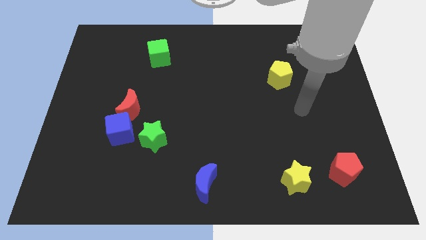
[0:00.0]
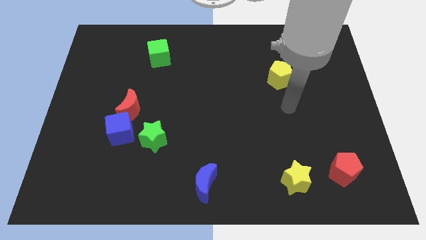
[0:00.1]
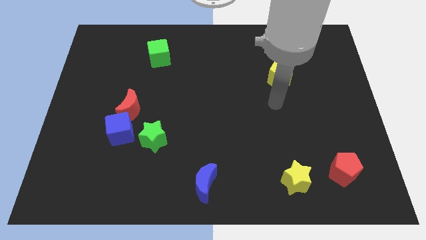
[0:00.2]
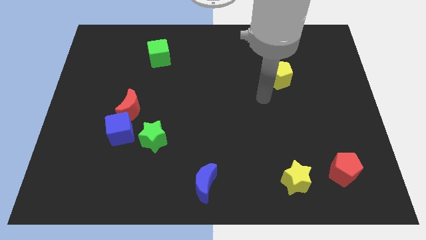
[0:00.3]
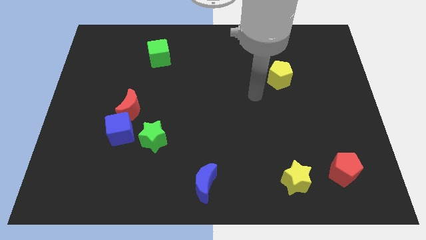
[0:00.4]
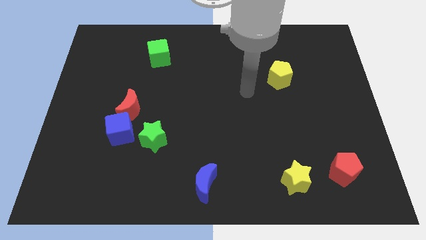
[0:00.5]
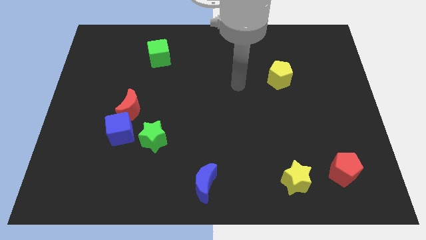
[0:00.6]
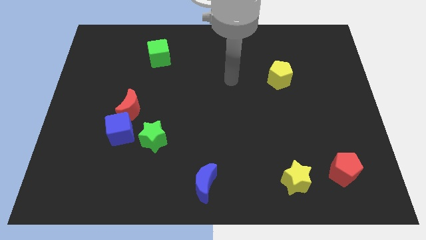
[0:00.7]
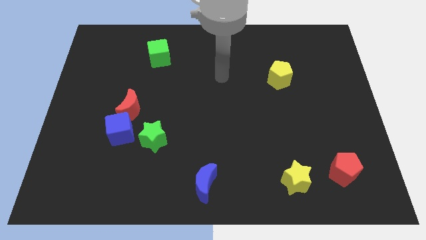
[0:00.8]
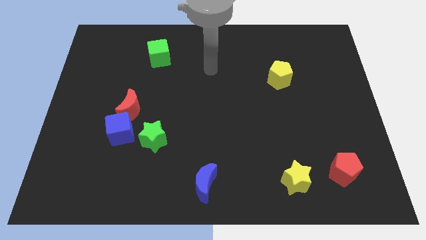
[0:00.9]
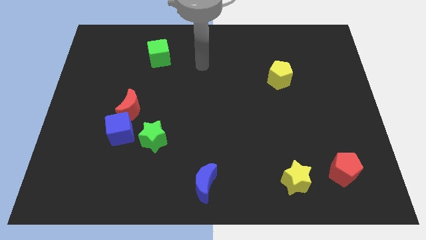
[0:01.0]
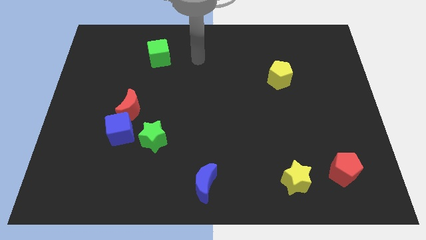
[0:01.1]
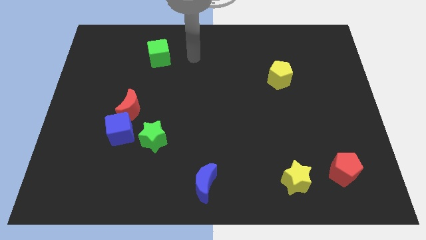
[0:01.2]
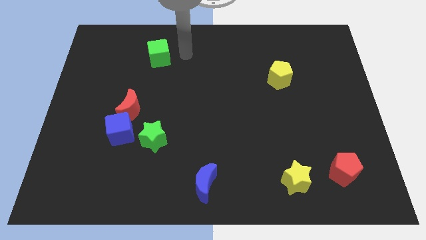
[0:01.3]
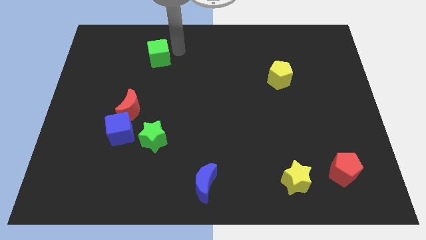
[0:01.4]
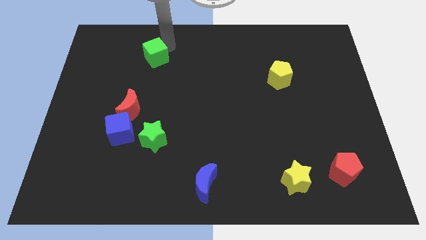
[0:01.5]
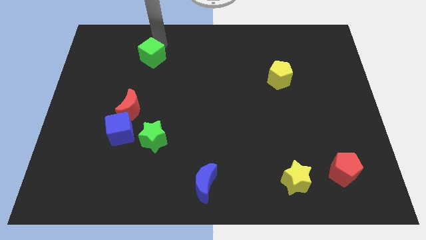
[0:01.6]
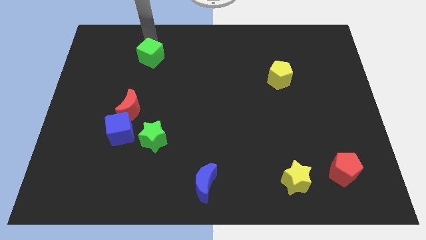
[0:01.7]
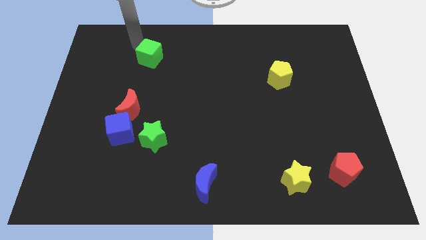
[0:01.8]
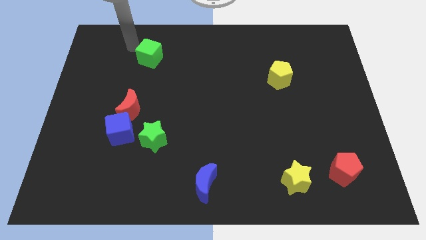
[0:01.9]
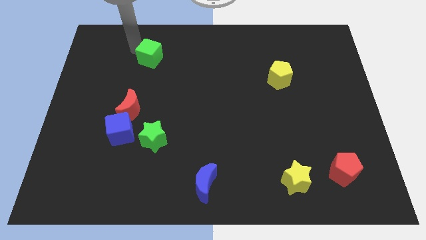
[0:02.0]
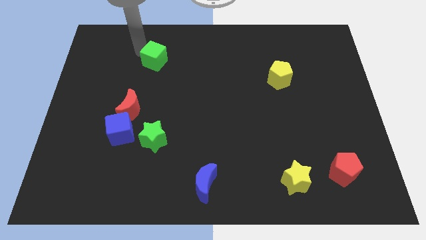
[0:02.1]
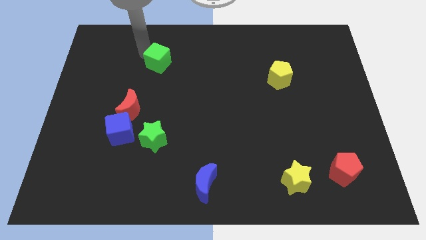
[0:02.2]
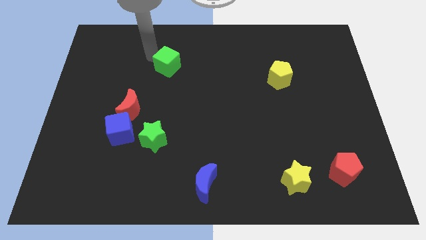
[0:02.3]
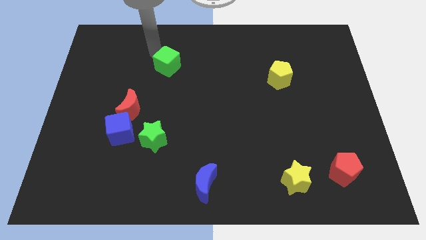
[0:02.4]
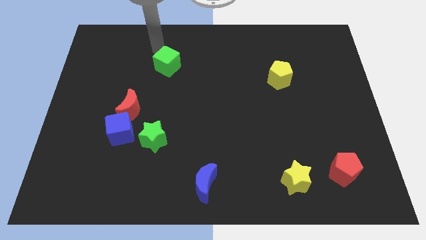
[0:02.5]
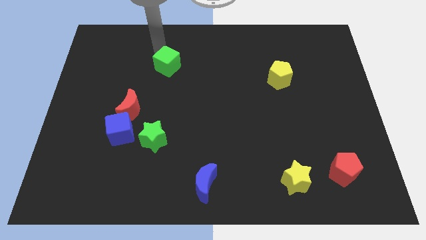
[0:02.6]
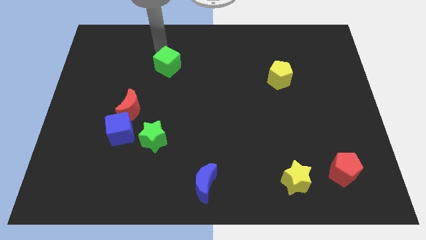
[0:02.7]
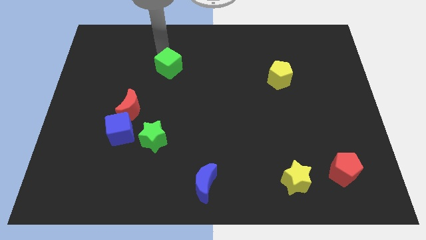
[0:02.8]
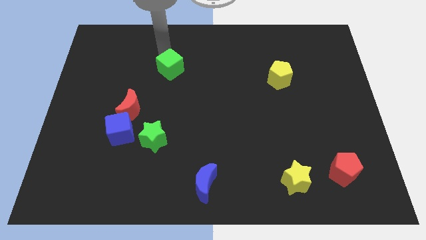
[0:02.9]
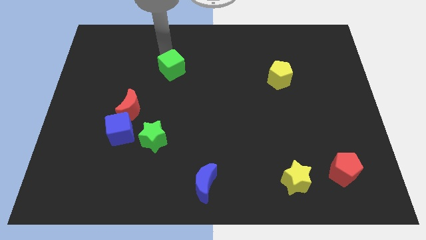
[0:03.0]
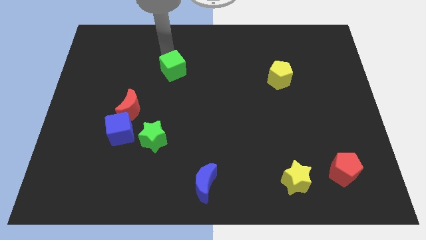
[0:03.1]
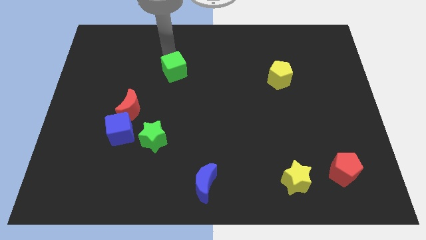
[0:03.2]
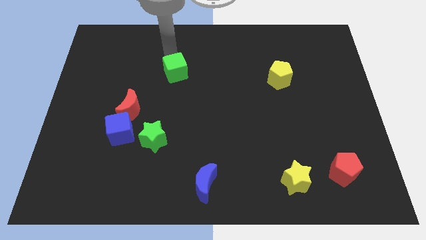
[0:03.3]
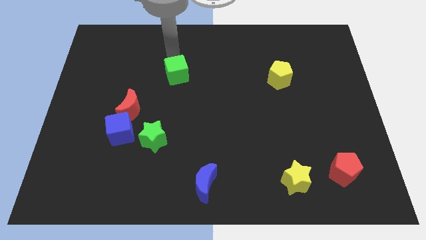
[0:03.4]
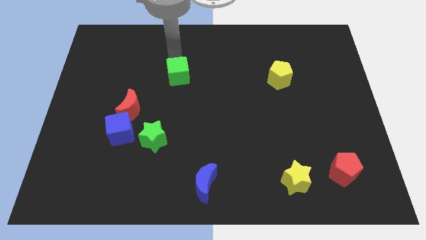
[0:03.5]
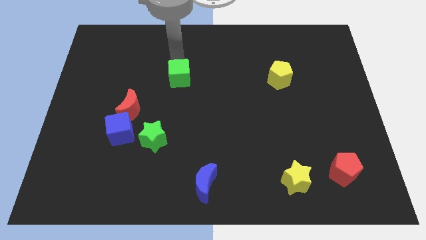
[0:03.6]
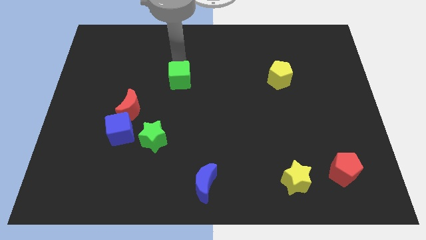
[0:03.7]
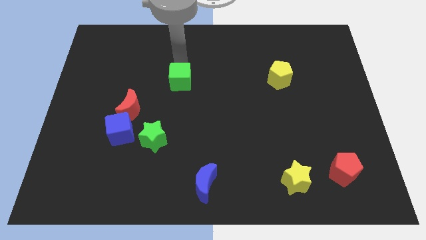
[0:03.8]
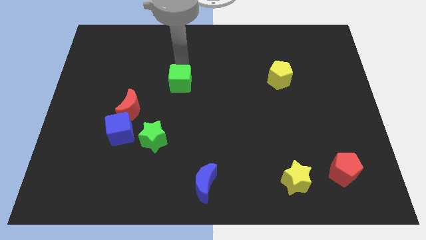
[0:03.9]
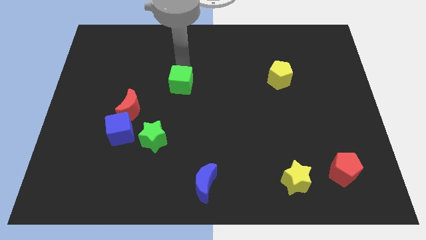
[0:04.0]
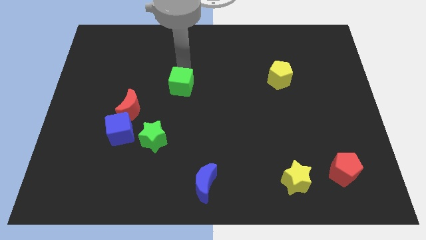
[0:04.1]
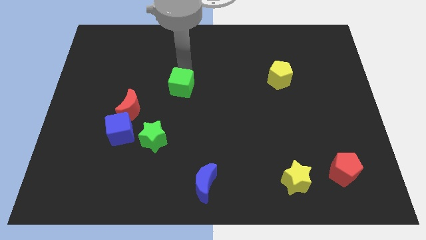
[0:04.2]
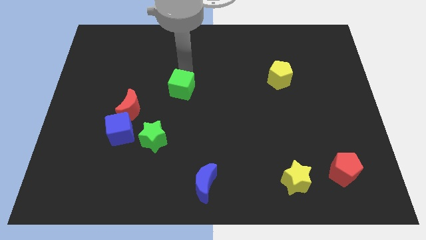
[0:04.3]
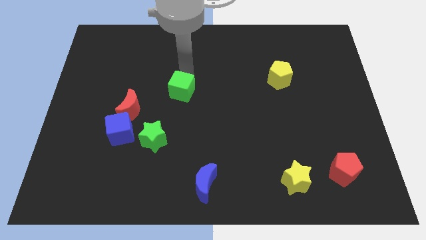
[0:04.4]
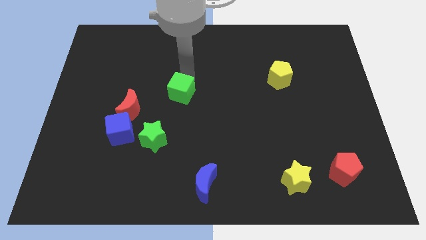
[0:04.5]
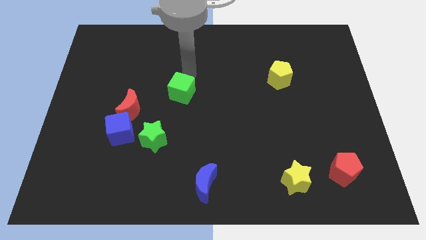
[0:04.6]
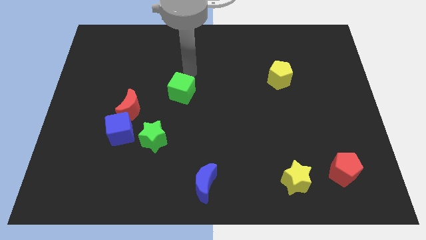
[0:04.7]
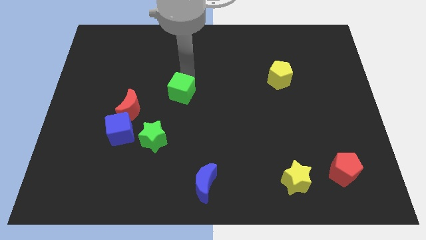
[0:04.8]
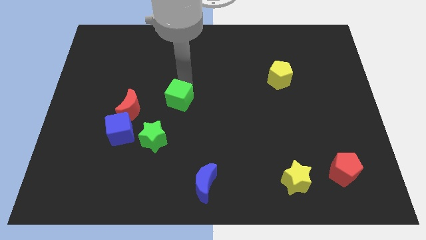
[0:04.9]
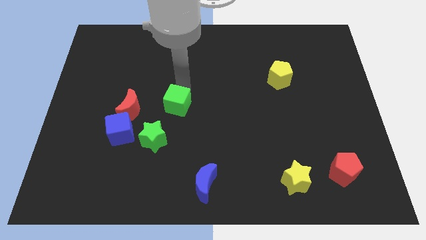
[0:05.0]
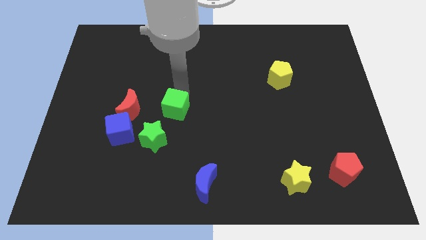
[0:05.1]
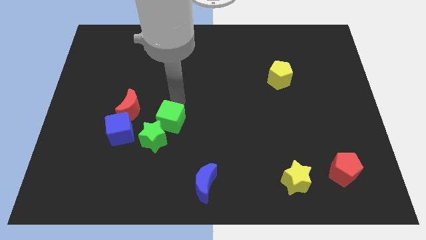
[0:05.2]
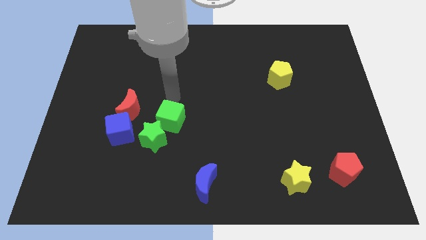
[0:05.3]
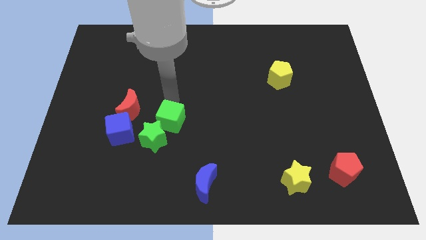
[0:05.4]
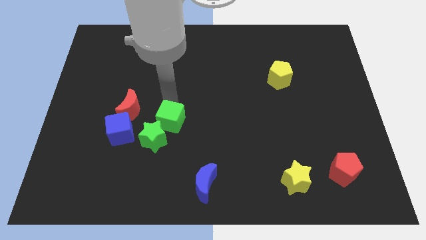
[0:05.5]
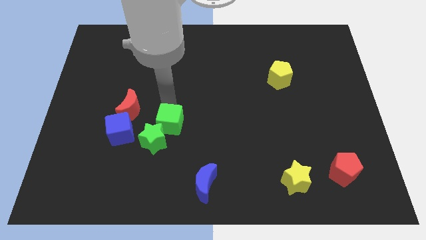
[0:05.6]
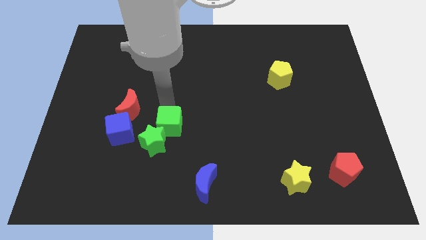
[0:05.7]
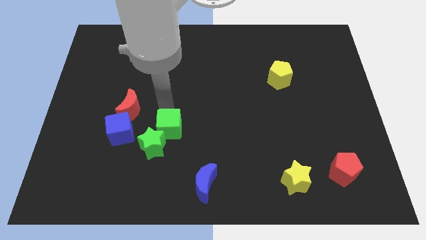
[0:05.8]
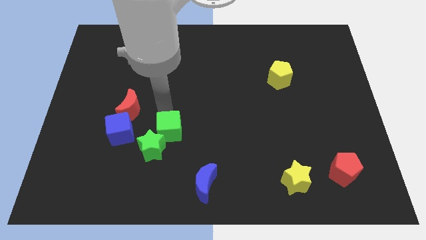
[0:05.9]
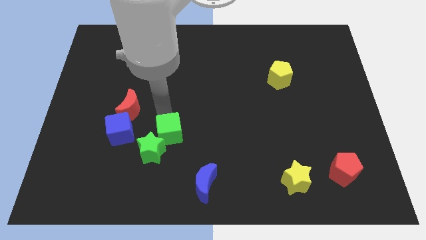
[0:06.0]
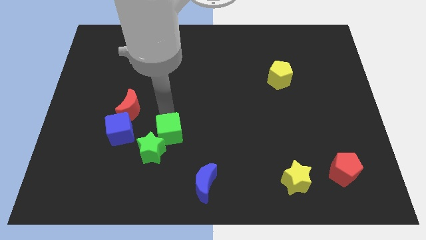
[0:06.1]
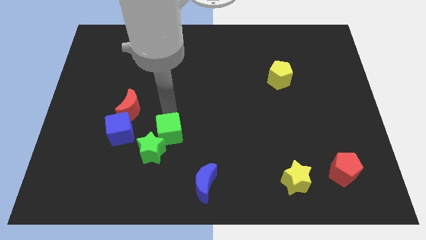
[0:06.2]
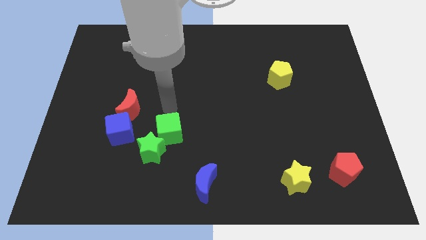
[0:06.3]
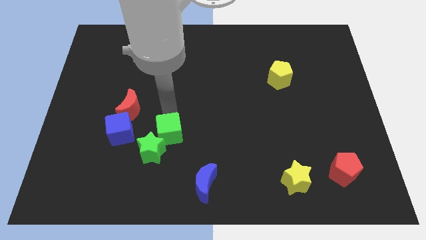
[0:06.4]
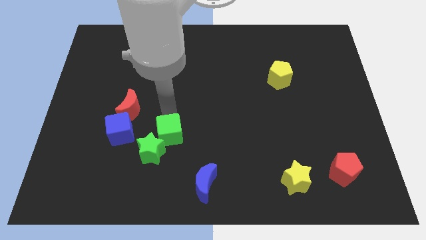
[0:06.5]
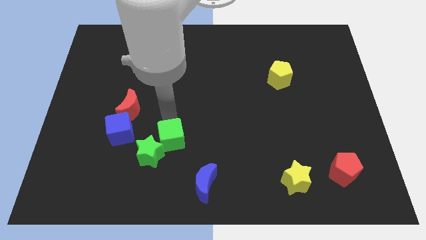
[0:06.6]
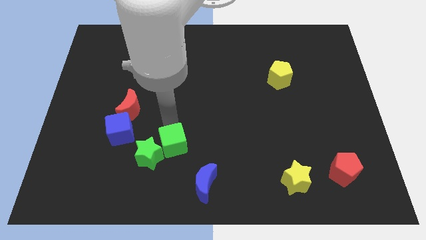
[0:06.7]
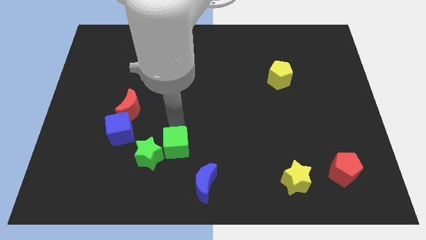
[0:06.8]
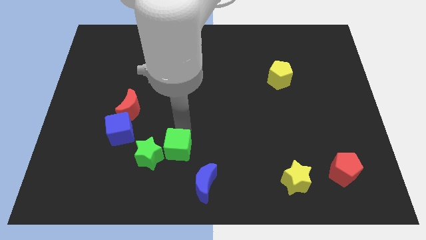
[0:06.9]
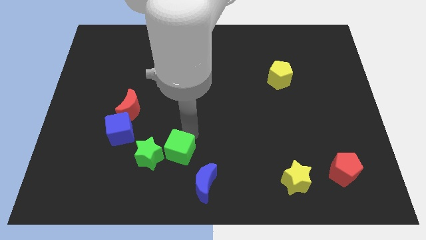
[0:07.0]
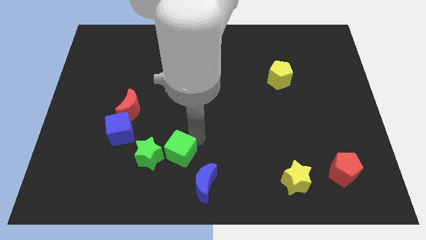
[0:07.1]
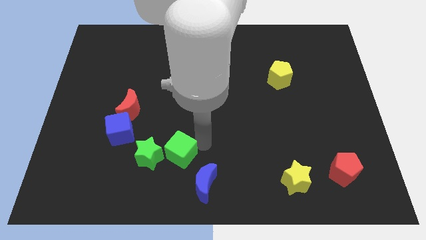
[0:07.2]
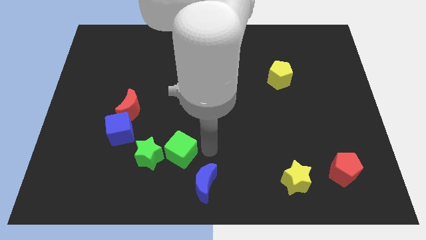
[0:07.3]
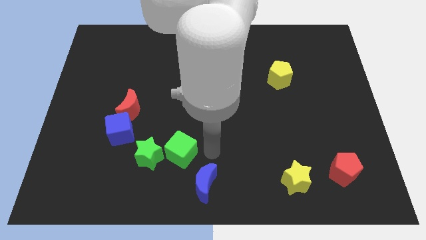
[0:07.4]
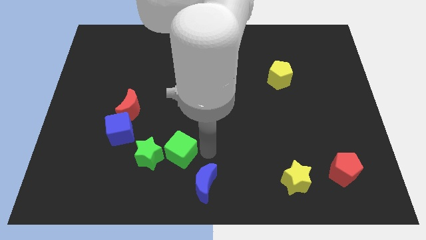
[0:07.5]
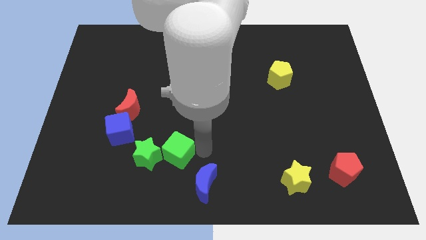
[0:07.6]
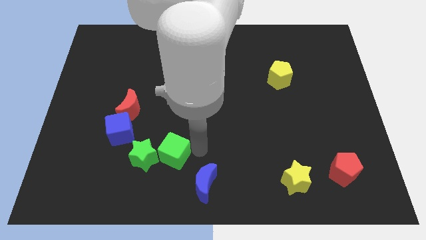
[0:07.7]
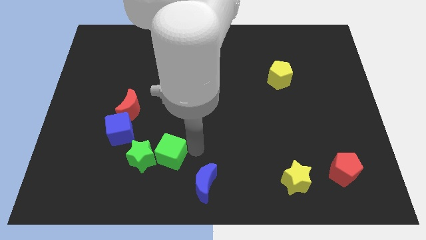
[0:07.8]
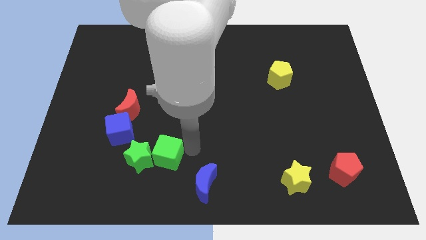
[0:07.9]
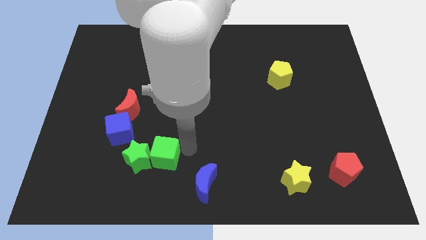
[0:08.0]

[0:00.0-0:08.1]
put the green cube diagonally down and to the right of the blue cube
